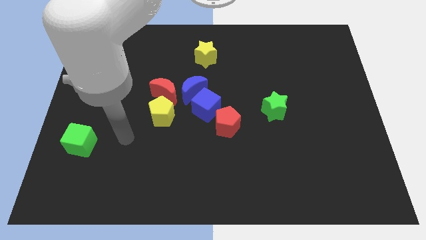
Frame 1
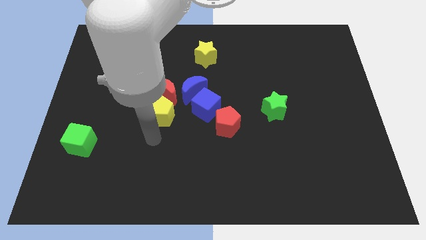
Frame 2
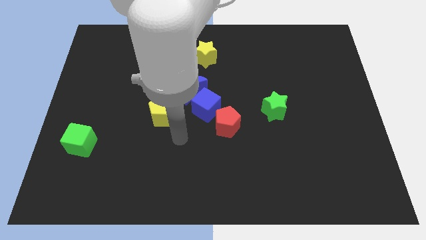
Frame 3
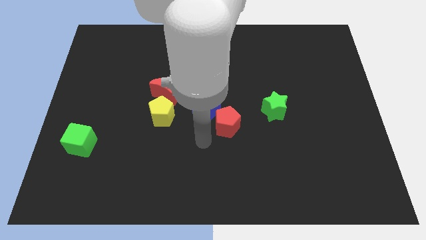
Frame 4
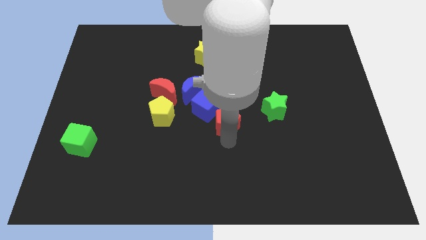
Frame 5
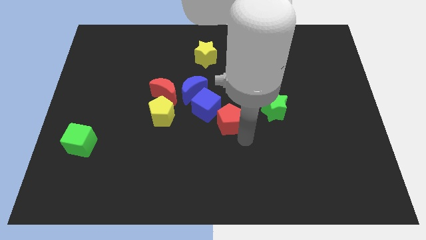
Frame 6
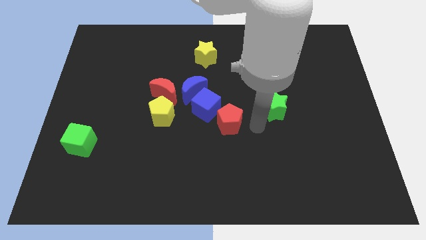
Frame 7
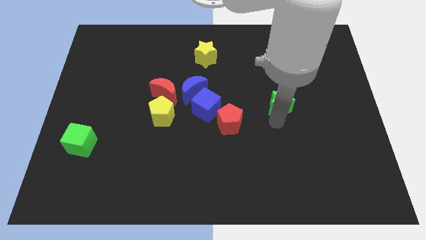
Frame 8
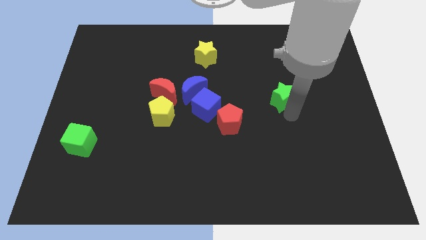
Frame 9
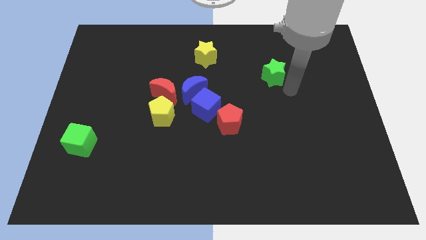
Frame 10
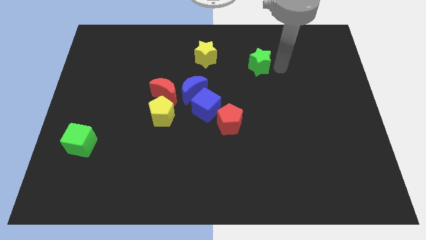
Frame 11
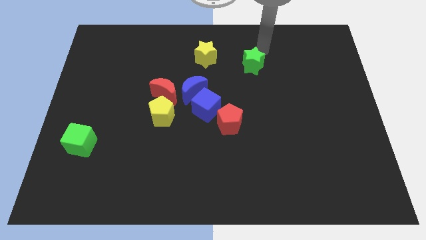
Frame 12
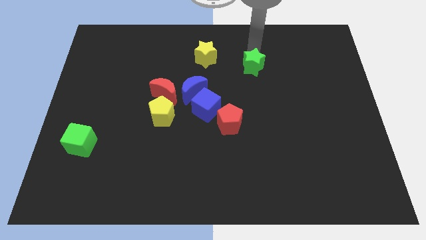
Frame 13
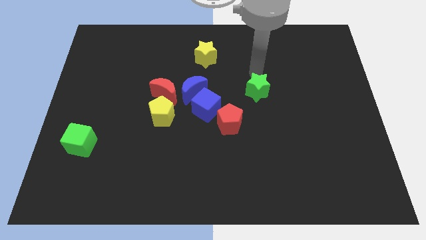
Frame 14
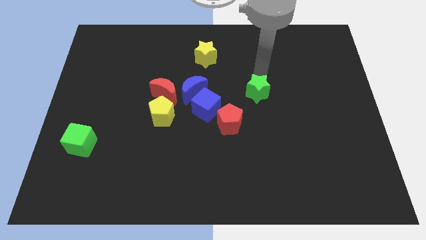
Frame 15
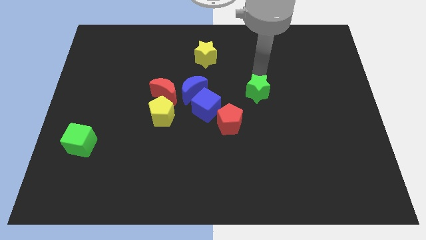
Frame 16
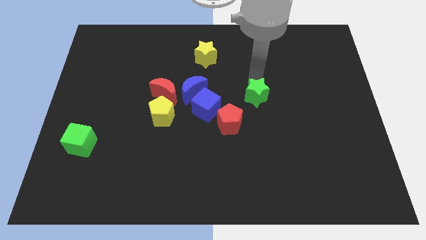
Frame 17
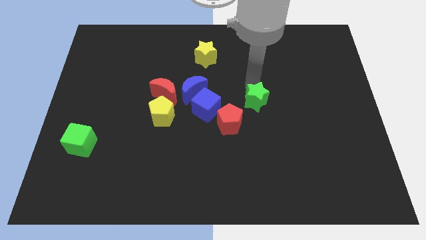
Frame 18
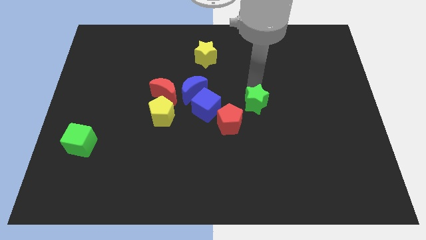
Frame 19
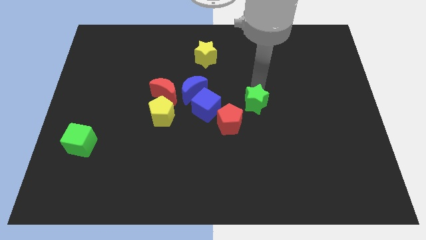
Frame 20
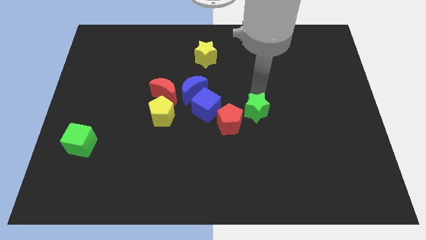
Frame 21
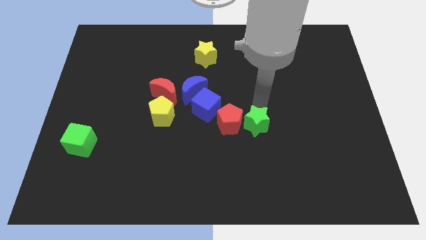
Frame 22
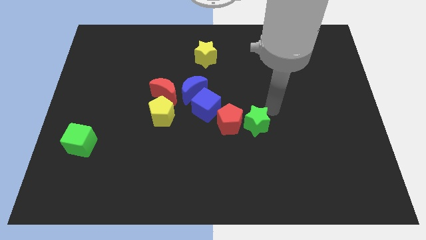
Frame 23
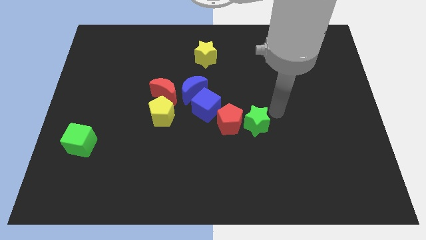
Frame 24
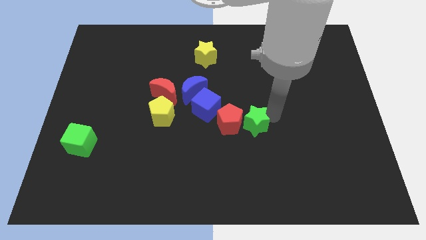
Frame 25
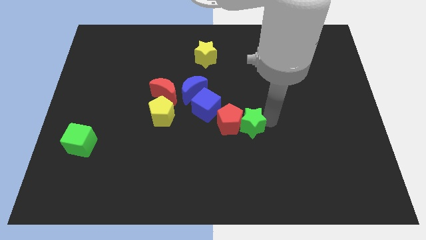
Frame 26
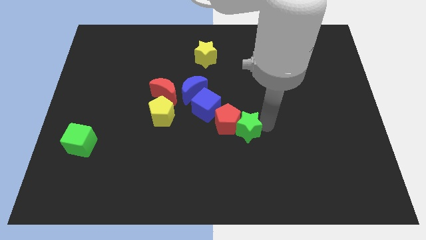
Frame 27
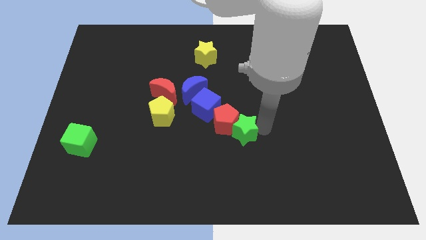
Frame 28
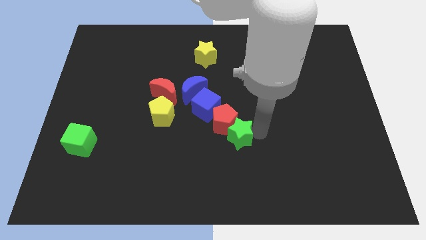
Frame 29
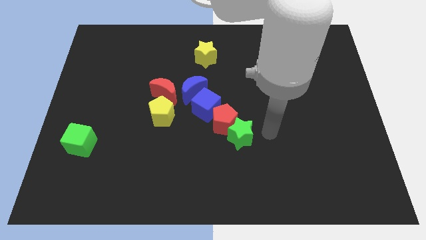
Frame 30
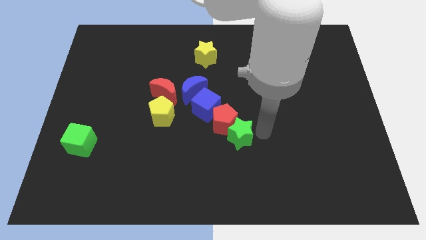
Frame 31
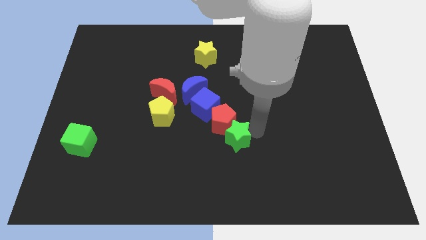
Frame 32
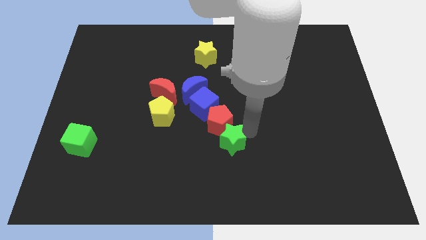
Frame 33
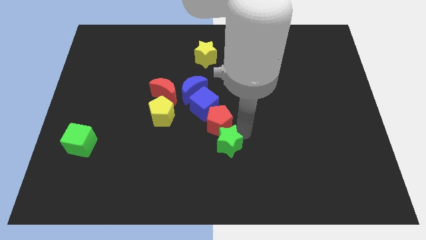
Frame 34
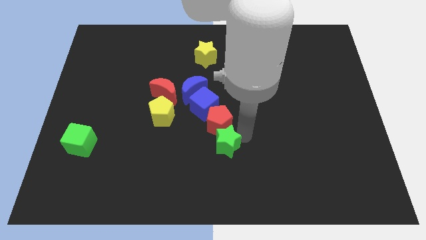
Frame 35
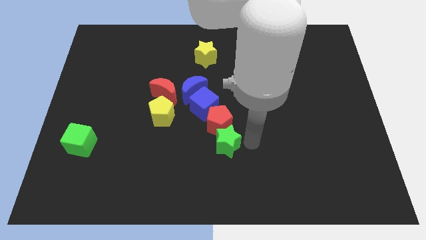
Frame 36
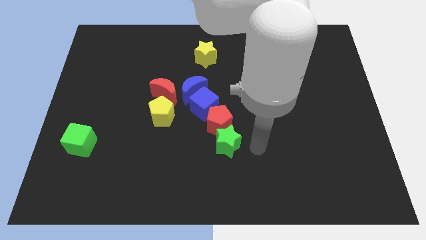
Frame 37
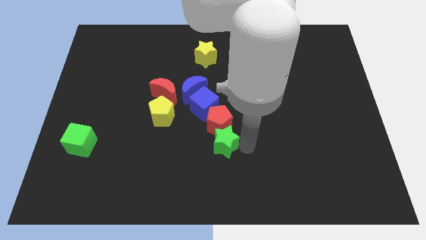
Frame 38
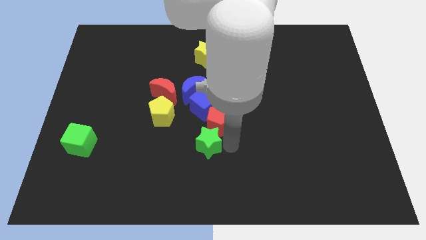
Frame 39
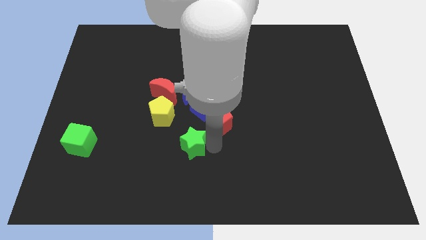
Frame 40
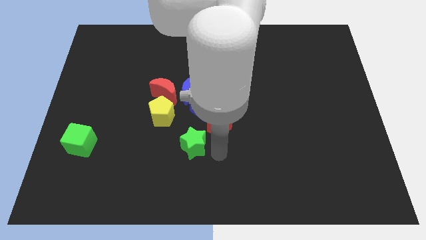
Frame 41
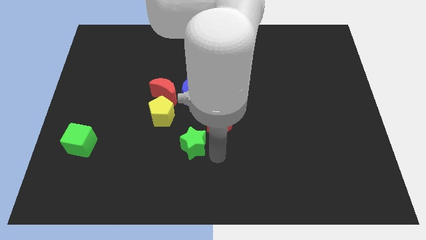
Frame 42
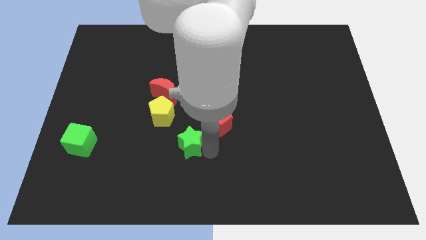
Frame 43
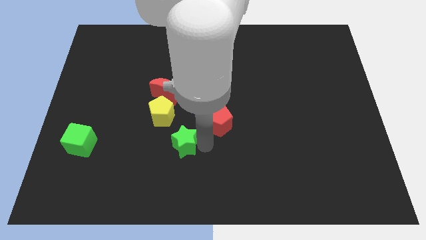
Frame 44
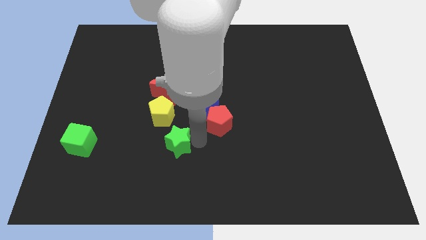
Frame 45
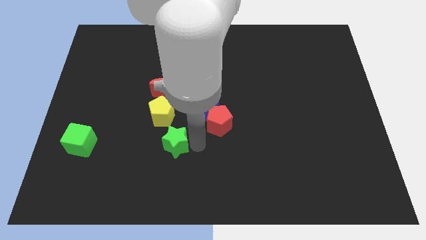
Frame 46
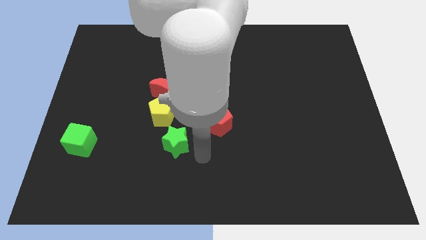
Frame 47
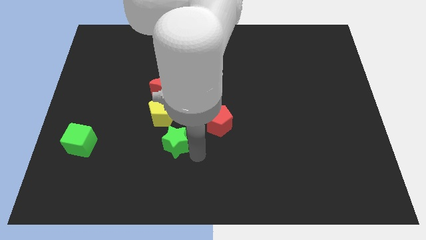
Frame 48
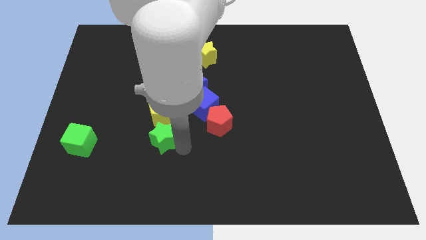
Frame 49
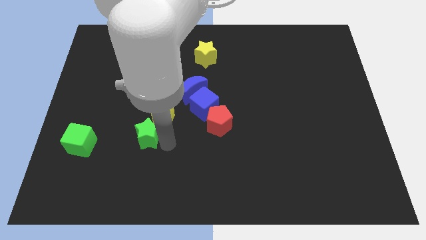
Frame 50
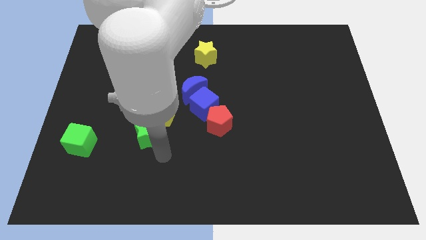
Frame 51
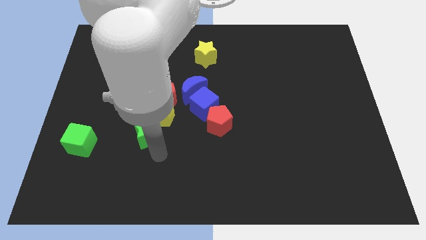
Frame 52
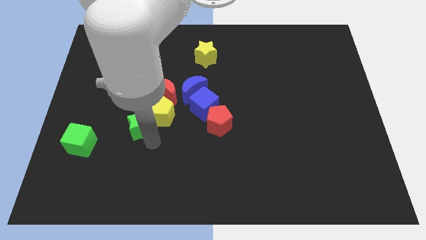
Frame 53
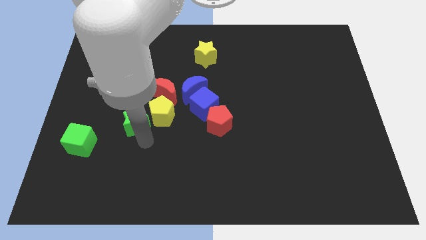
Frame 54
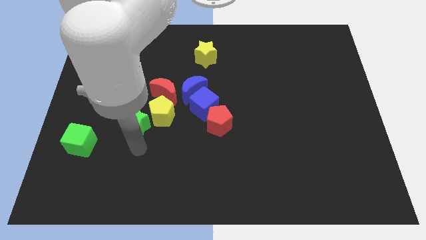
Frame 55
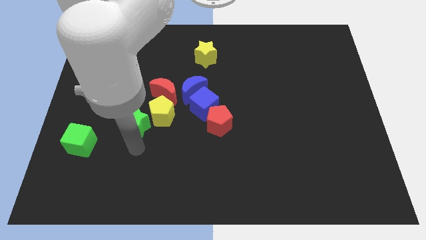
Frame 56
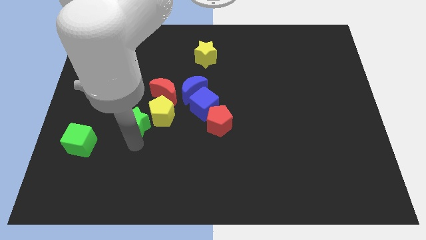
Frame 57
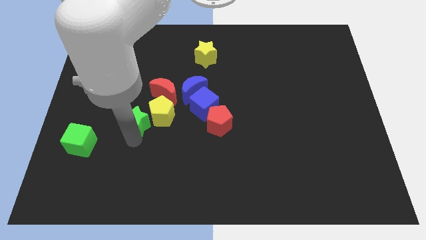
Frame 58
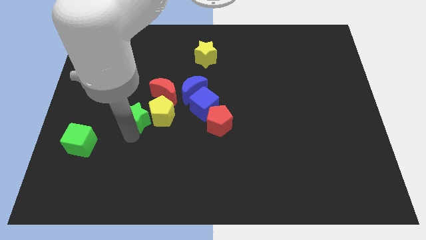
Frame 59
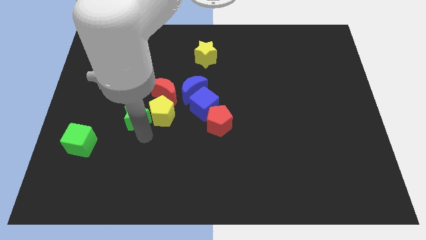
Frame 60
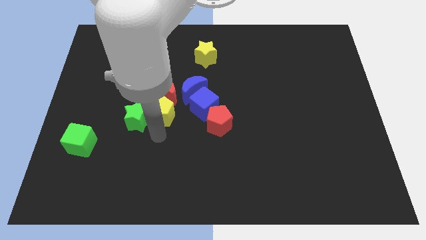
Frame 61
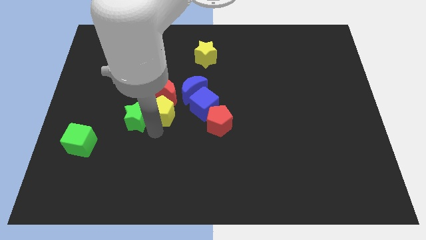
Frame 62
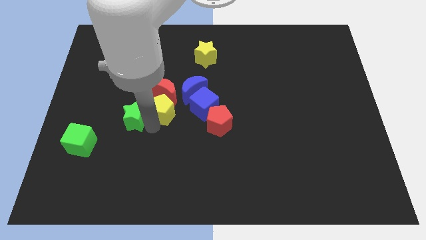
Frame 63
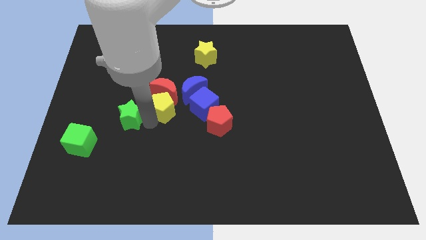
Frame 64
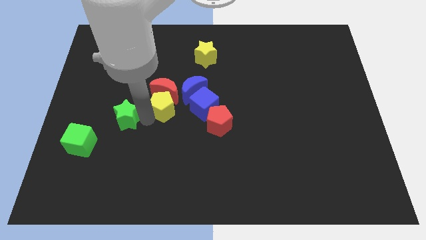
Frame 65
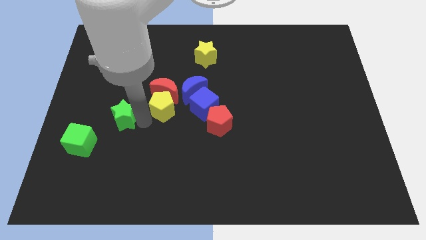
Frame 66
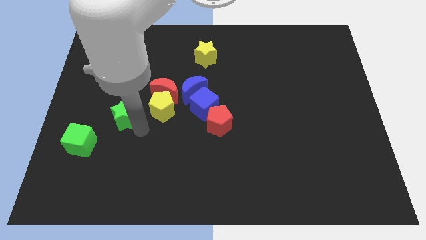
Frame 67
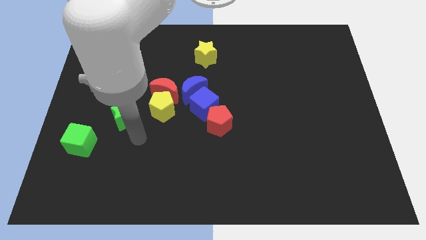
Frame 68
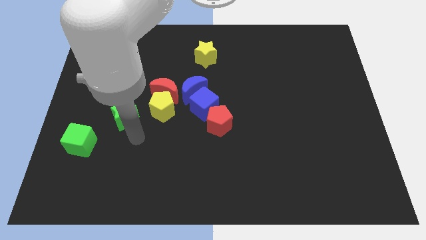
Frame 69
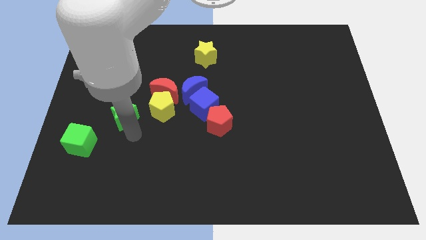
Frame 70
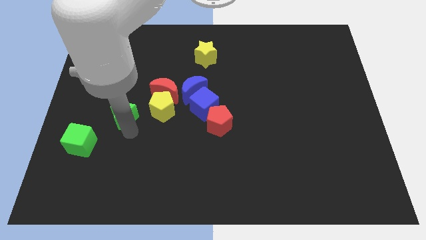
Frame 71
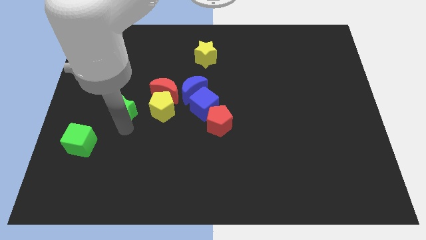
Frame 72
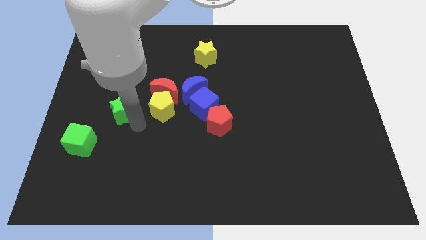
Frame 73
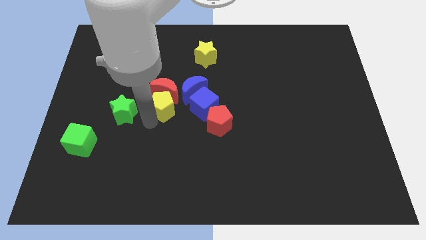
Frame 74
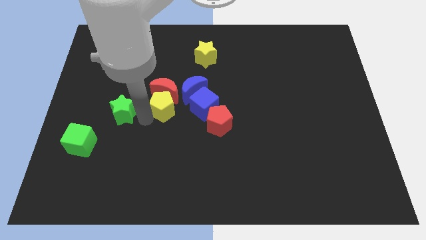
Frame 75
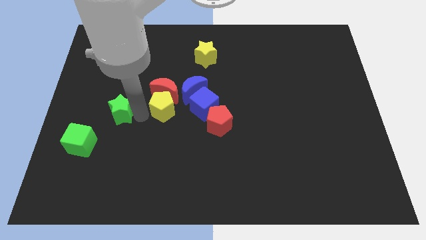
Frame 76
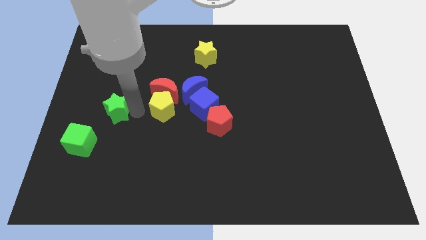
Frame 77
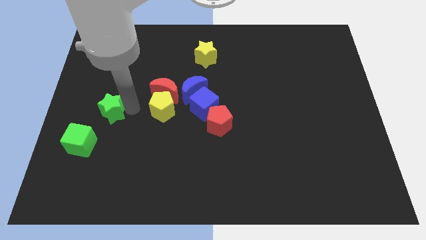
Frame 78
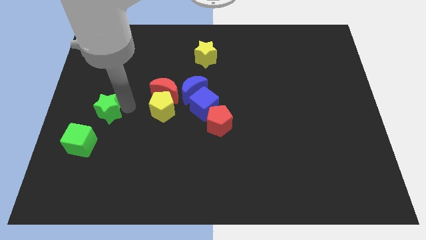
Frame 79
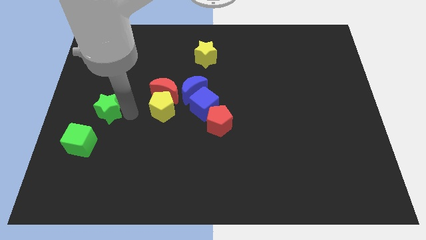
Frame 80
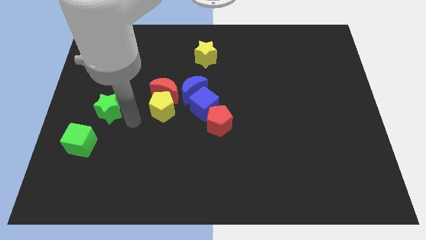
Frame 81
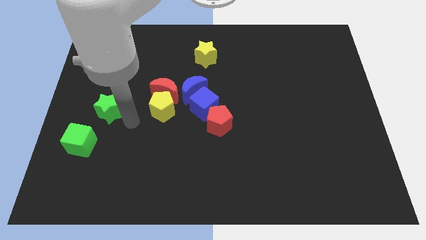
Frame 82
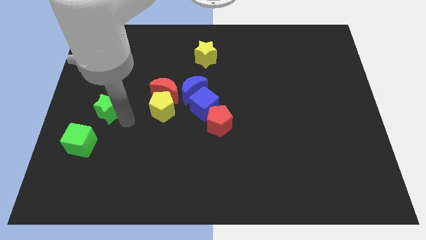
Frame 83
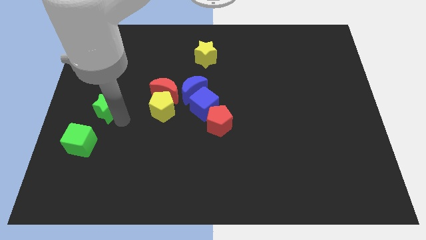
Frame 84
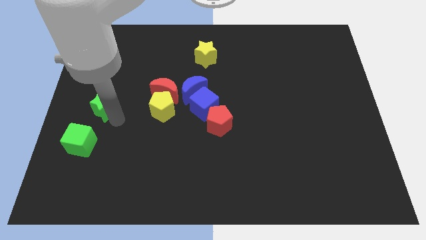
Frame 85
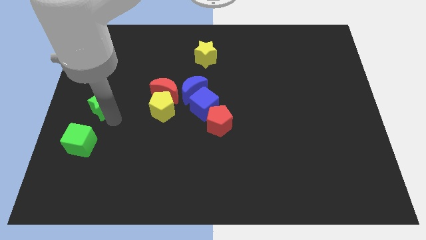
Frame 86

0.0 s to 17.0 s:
push the green star to the left side
